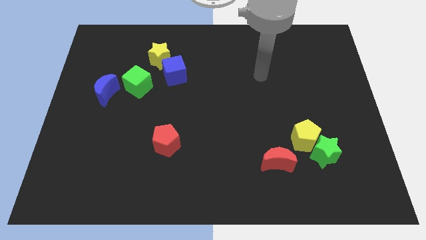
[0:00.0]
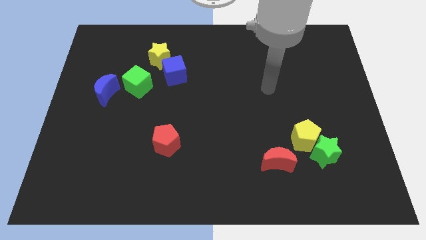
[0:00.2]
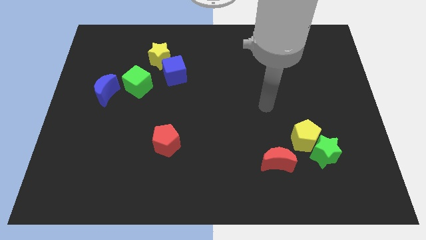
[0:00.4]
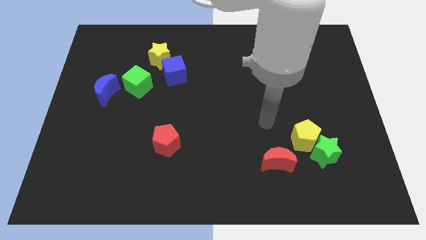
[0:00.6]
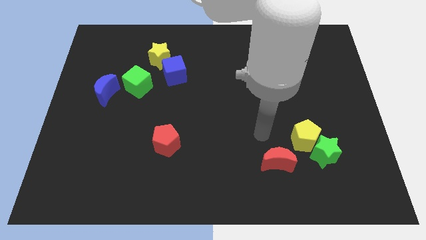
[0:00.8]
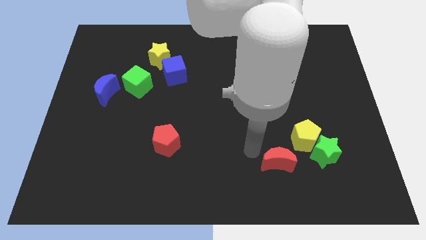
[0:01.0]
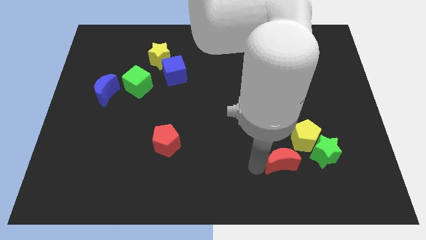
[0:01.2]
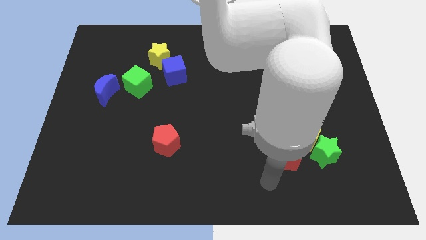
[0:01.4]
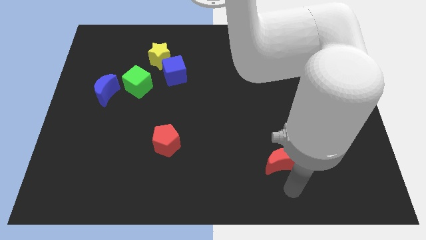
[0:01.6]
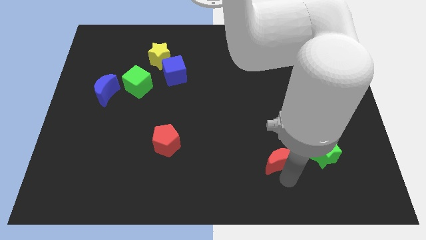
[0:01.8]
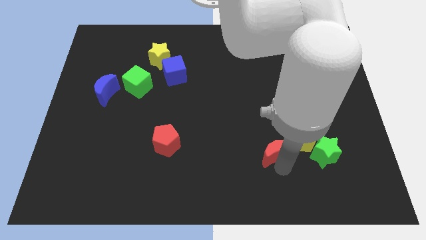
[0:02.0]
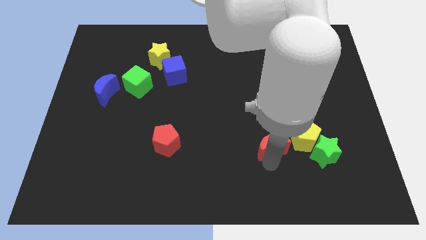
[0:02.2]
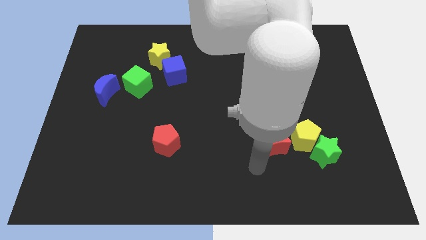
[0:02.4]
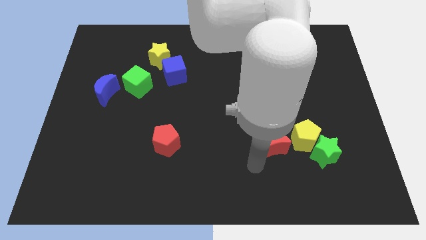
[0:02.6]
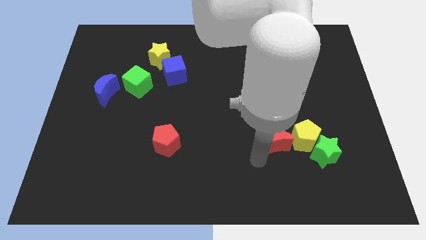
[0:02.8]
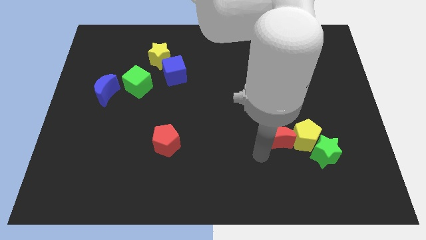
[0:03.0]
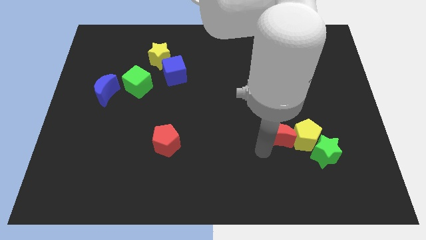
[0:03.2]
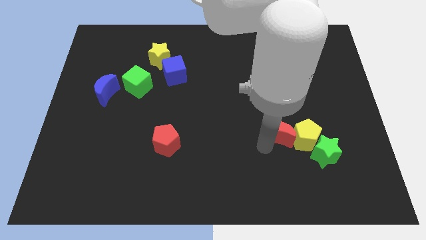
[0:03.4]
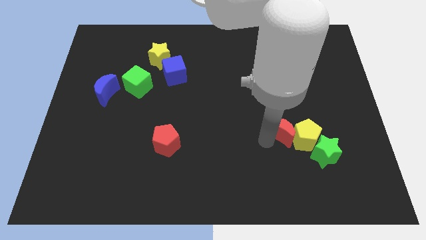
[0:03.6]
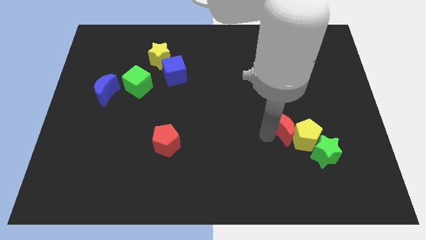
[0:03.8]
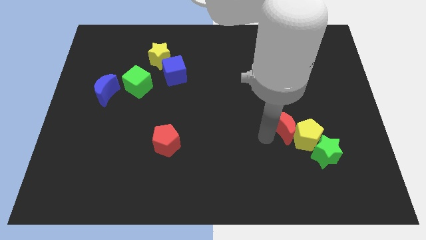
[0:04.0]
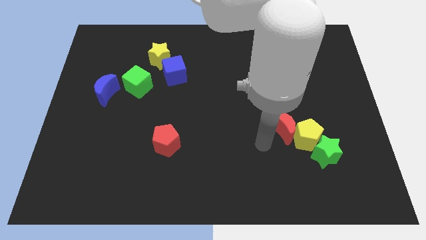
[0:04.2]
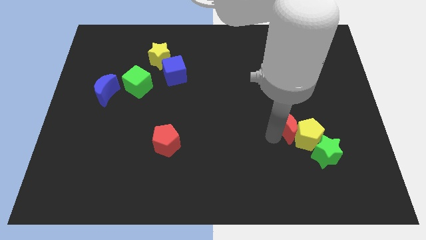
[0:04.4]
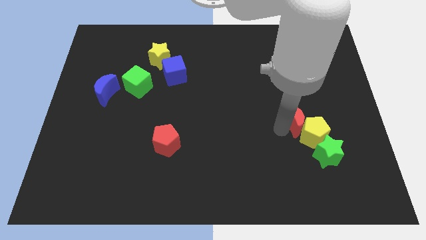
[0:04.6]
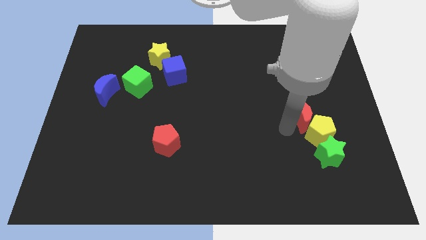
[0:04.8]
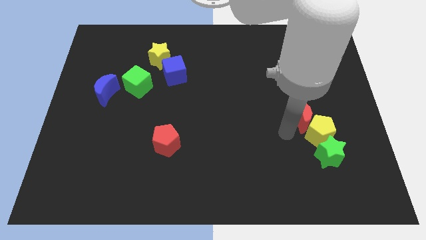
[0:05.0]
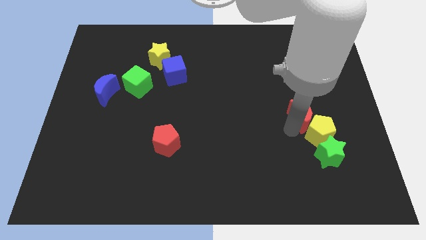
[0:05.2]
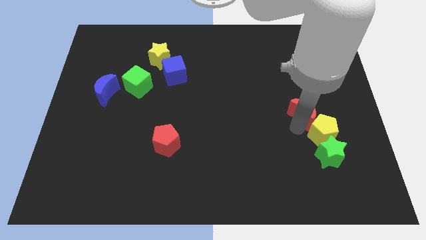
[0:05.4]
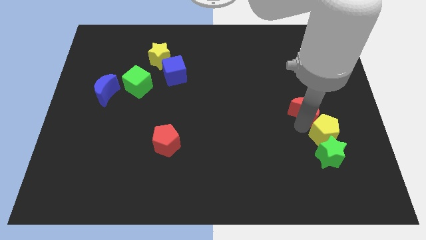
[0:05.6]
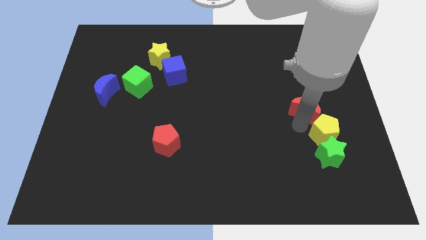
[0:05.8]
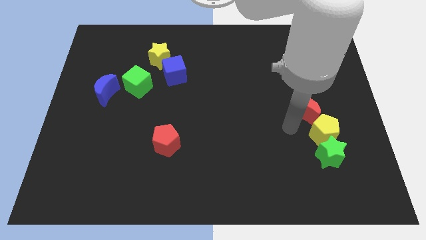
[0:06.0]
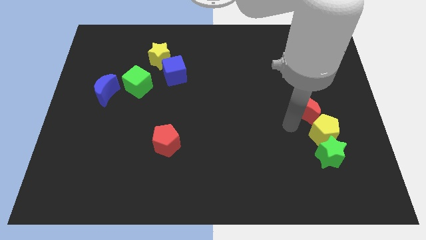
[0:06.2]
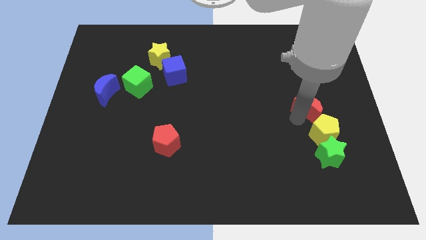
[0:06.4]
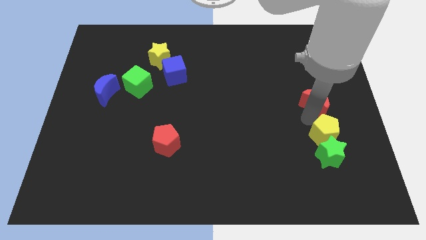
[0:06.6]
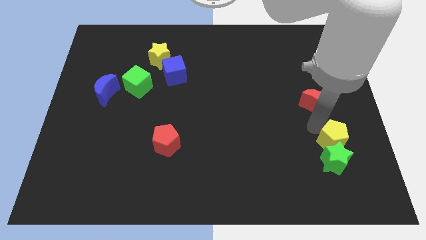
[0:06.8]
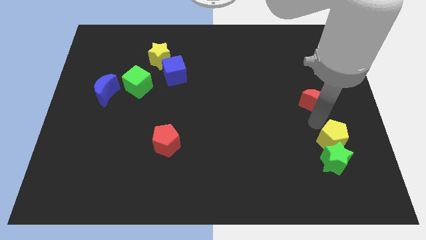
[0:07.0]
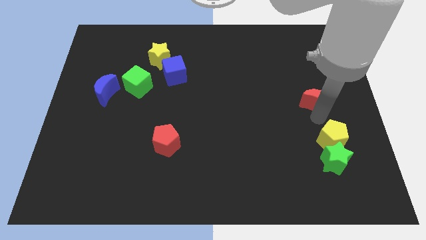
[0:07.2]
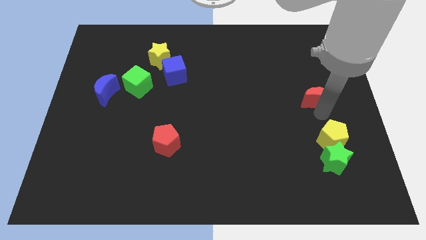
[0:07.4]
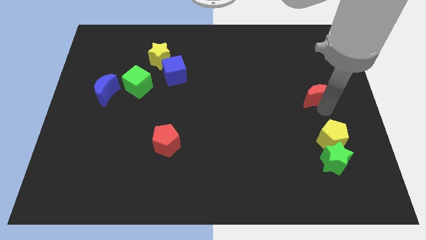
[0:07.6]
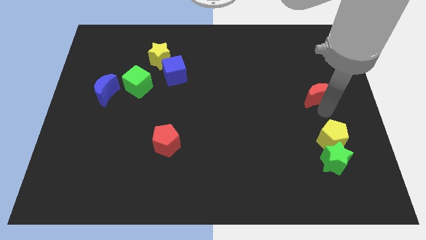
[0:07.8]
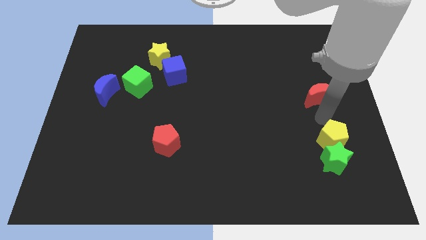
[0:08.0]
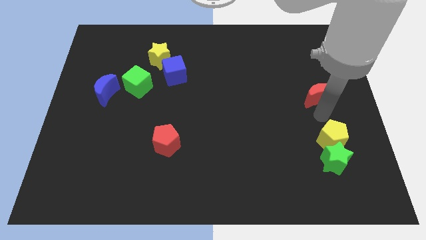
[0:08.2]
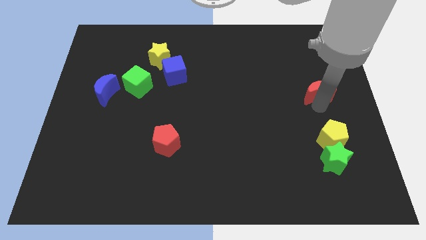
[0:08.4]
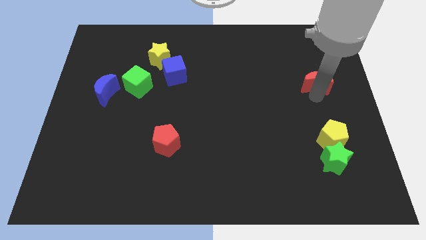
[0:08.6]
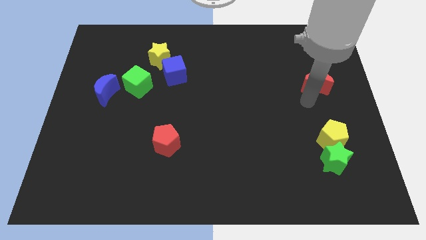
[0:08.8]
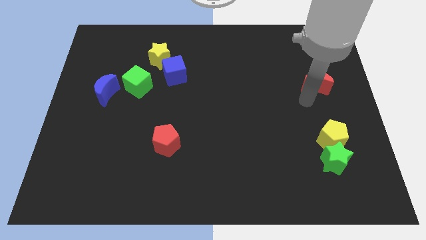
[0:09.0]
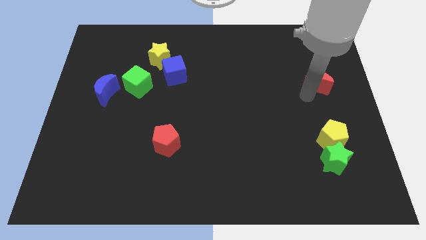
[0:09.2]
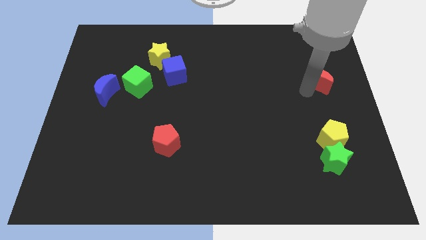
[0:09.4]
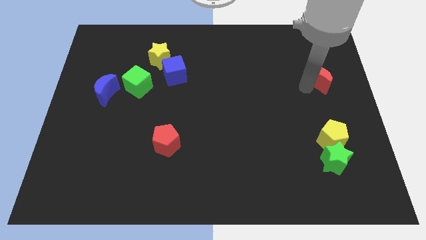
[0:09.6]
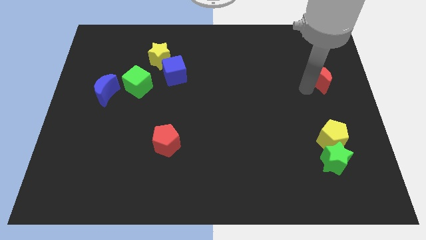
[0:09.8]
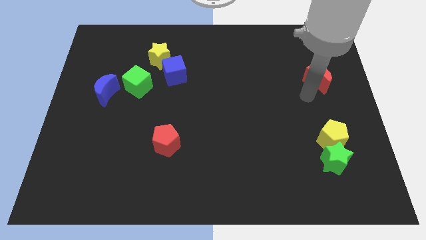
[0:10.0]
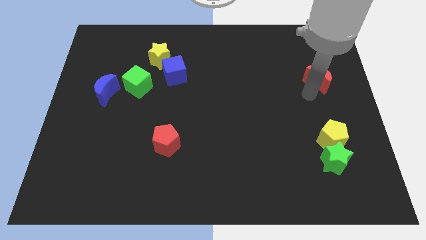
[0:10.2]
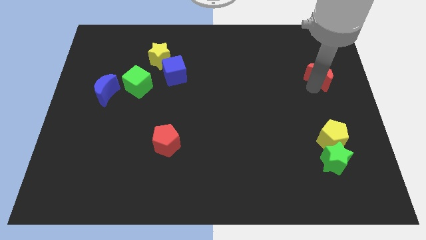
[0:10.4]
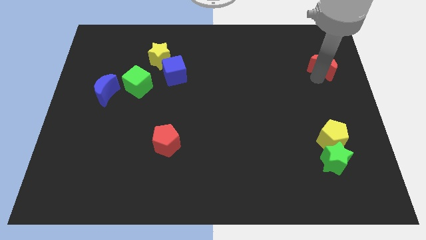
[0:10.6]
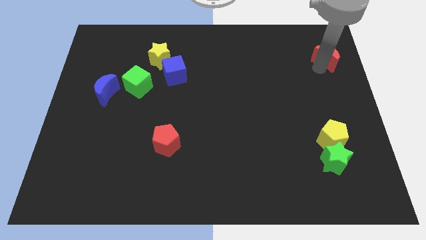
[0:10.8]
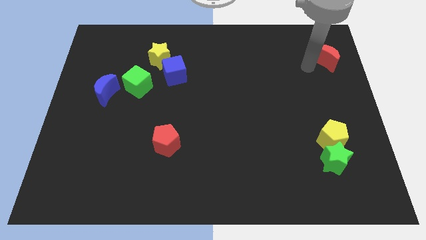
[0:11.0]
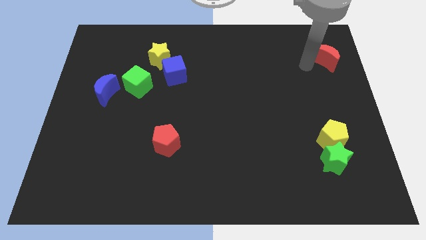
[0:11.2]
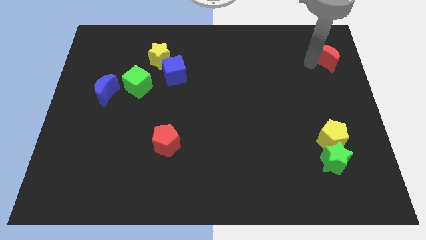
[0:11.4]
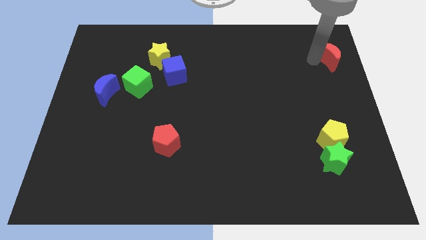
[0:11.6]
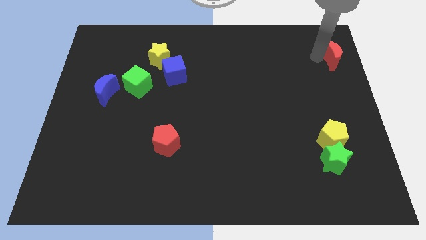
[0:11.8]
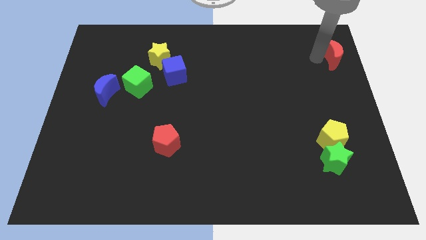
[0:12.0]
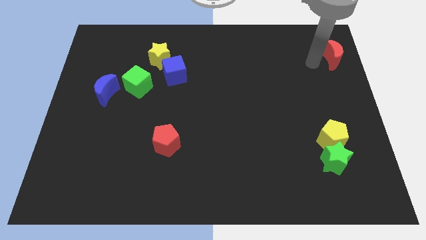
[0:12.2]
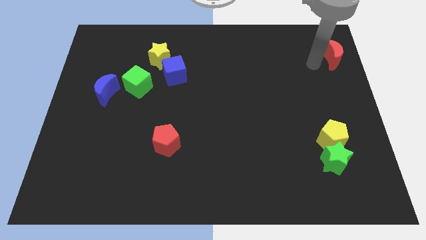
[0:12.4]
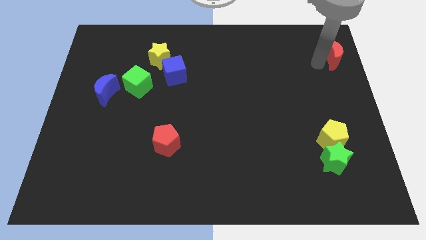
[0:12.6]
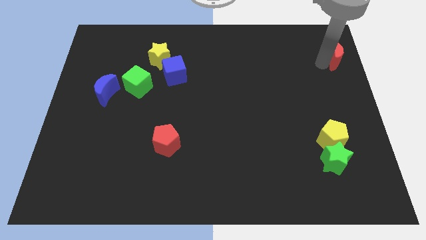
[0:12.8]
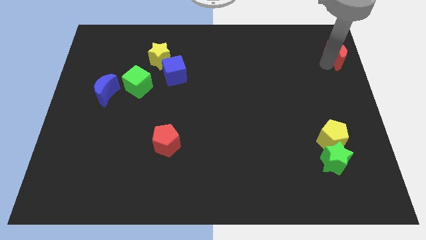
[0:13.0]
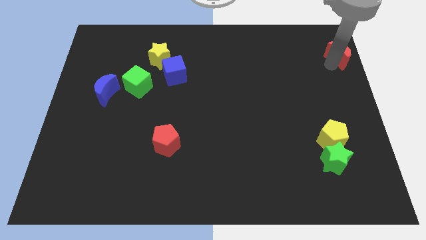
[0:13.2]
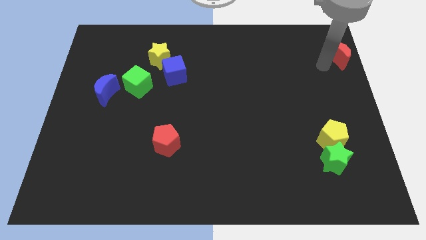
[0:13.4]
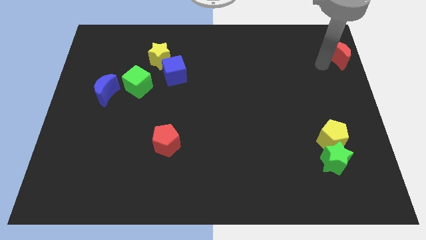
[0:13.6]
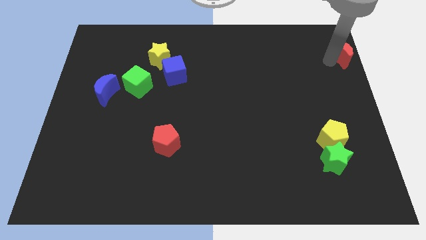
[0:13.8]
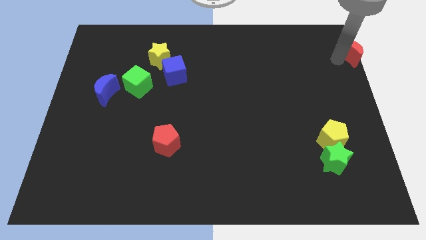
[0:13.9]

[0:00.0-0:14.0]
push the red moon to the top right corner
